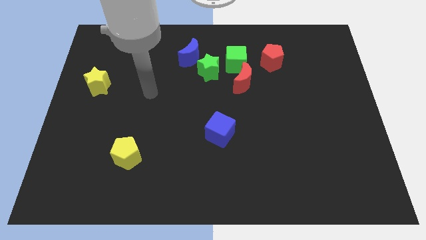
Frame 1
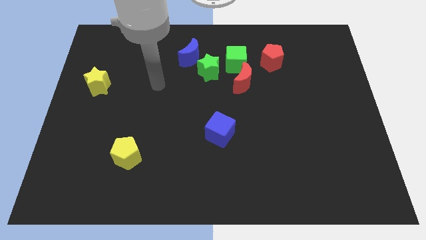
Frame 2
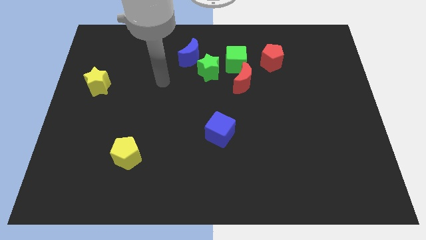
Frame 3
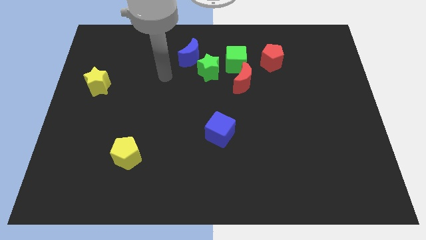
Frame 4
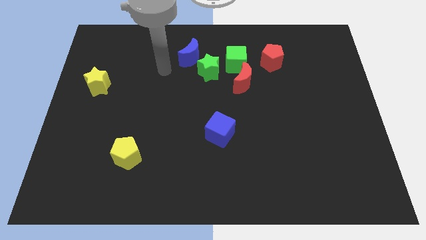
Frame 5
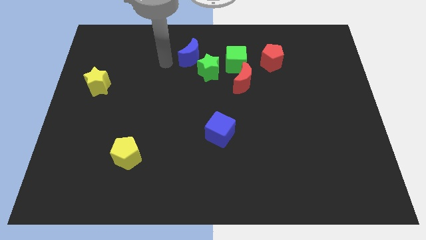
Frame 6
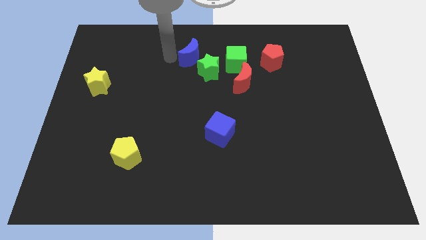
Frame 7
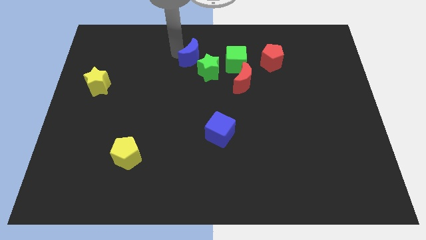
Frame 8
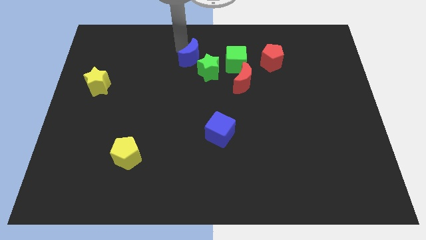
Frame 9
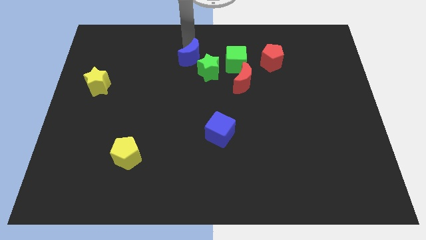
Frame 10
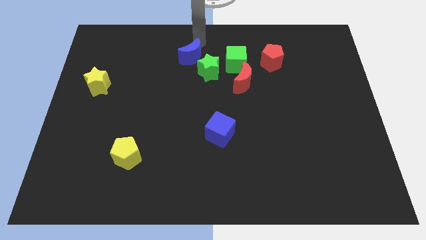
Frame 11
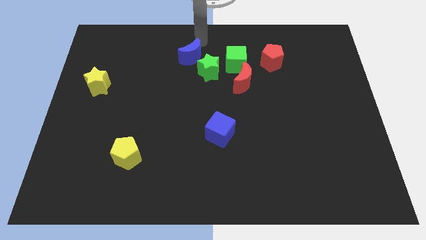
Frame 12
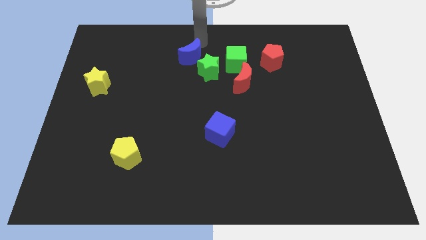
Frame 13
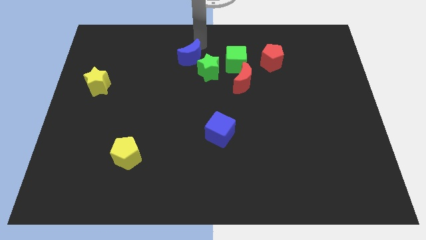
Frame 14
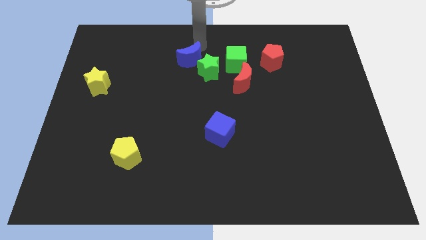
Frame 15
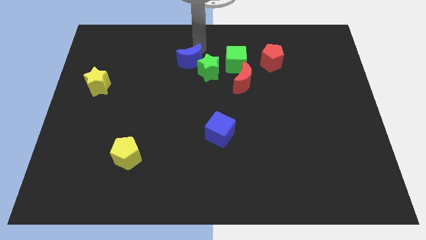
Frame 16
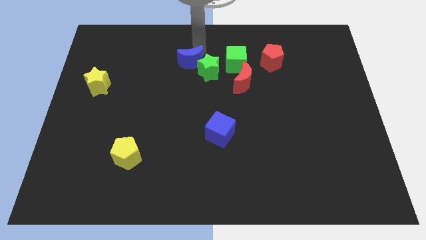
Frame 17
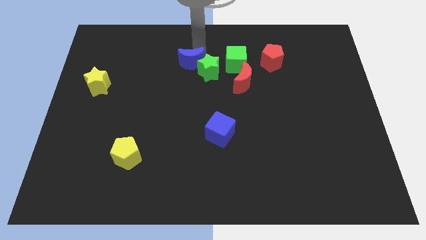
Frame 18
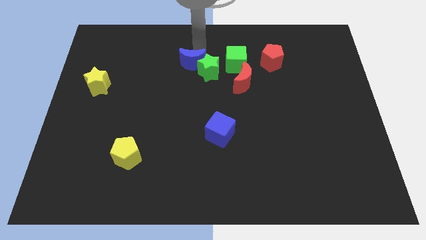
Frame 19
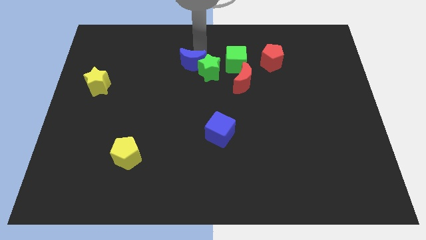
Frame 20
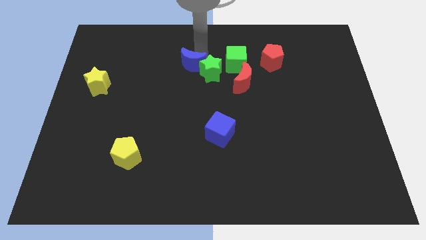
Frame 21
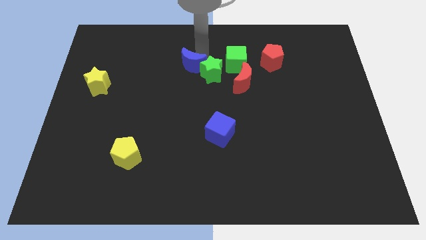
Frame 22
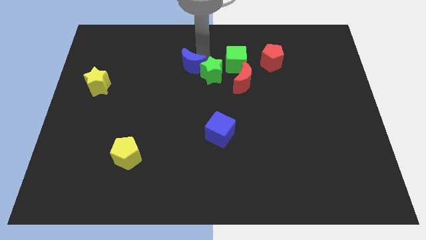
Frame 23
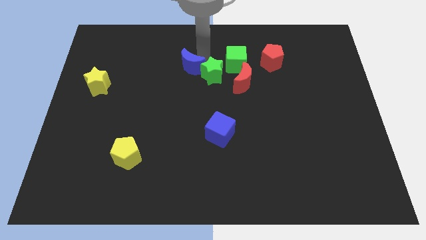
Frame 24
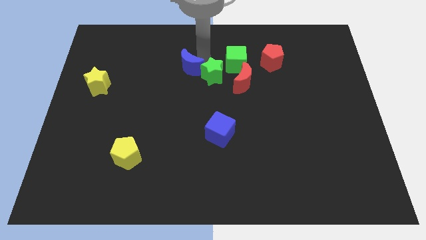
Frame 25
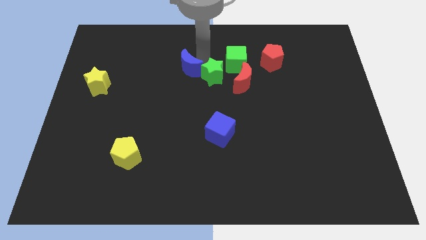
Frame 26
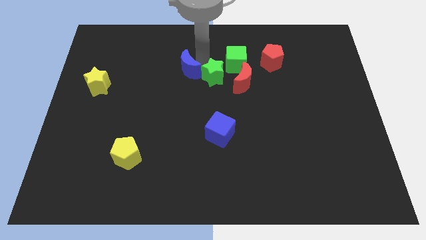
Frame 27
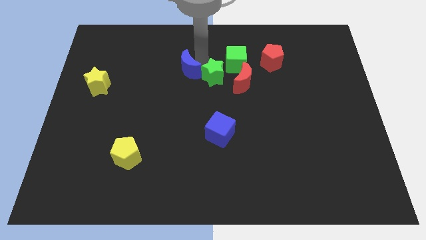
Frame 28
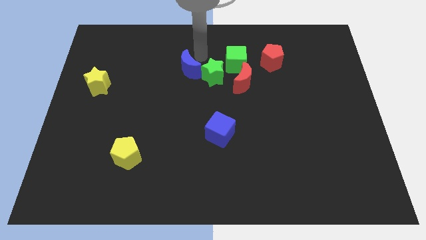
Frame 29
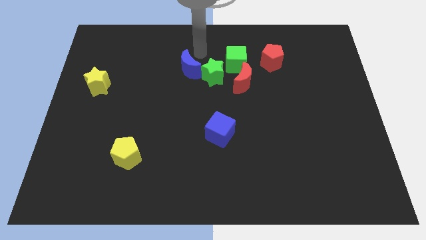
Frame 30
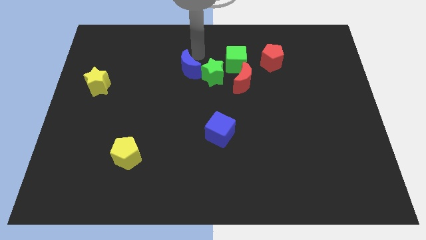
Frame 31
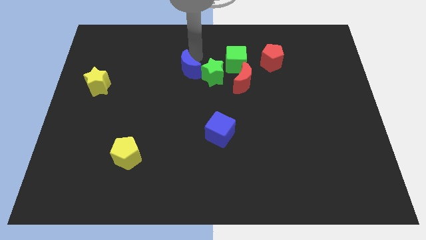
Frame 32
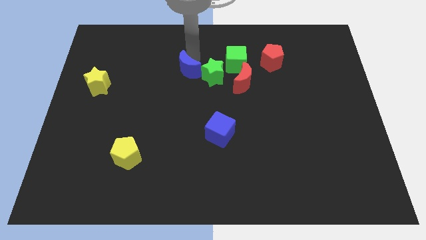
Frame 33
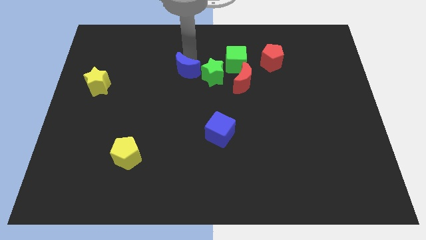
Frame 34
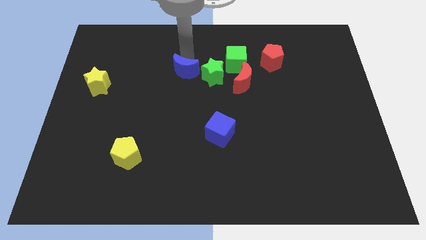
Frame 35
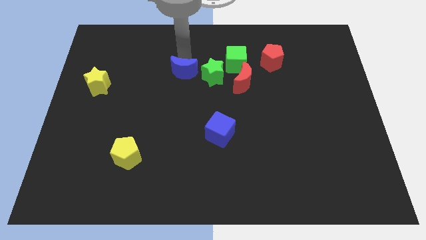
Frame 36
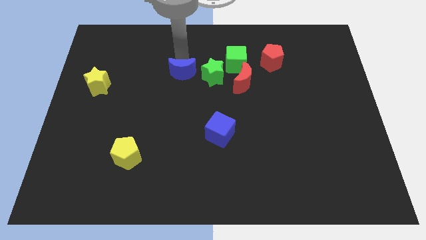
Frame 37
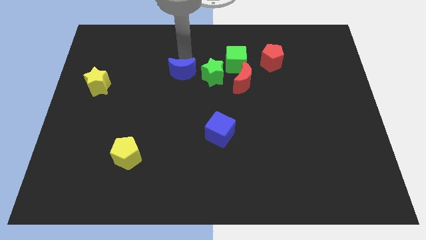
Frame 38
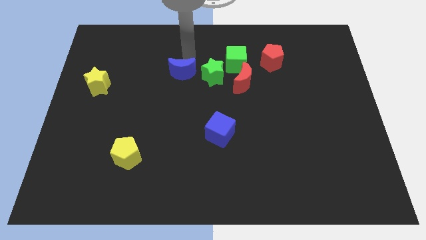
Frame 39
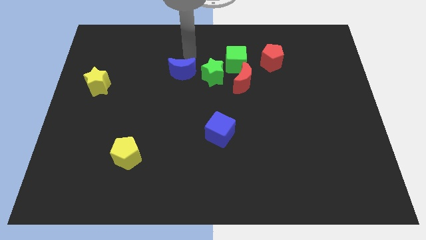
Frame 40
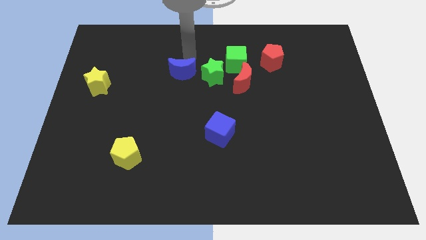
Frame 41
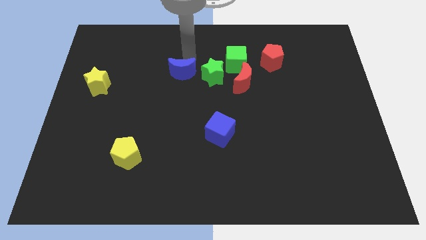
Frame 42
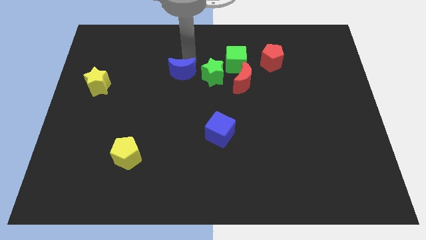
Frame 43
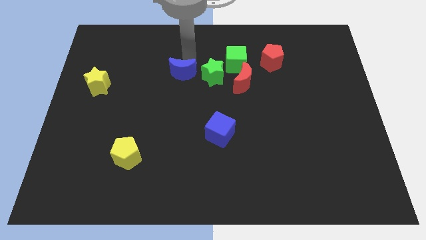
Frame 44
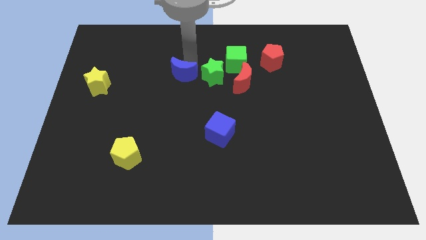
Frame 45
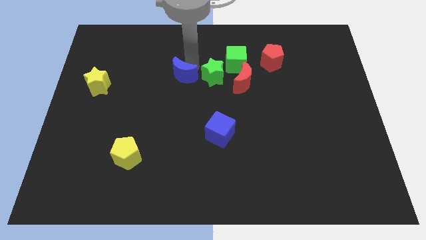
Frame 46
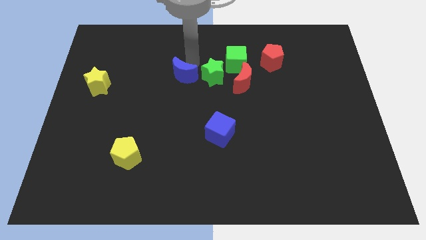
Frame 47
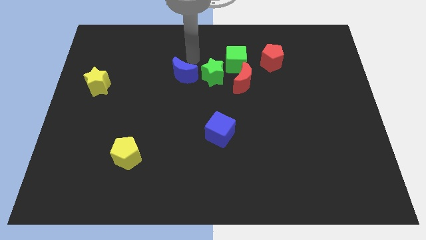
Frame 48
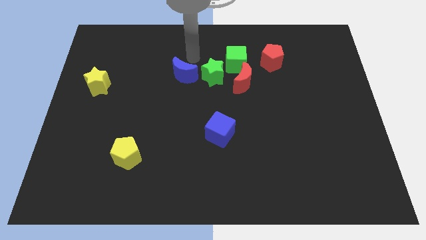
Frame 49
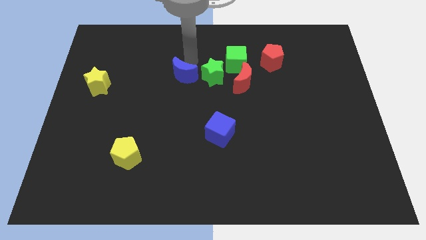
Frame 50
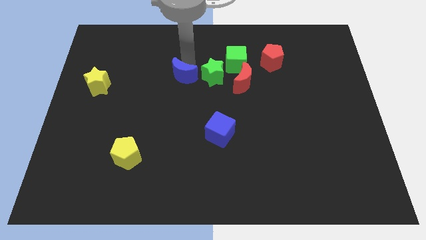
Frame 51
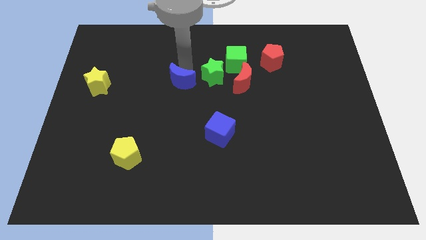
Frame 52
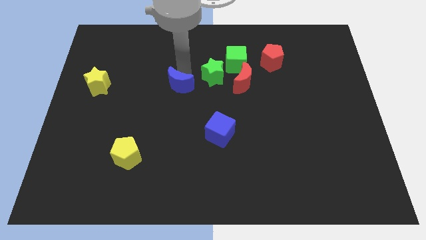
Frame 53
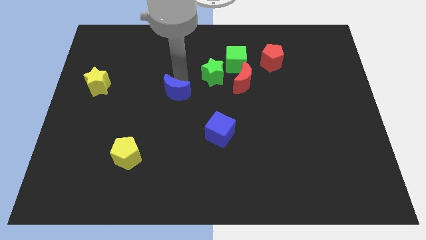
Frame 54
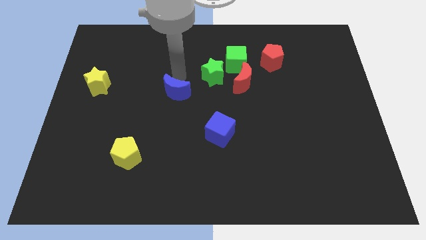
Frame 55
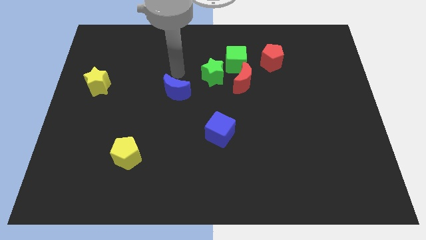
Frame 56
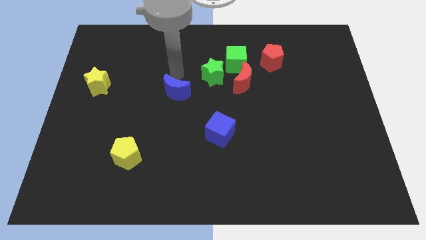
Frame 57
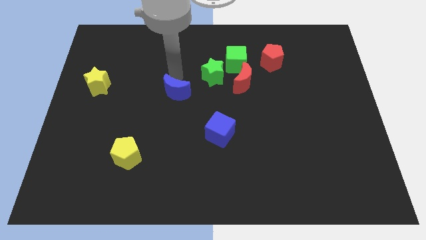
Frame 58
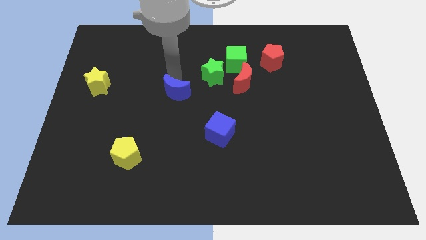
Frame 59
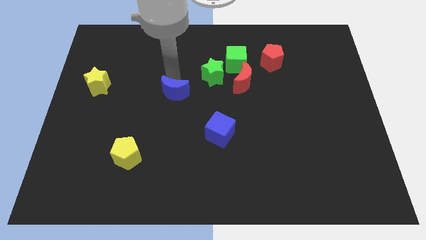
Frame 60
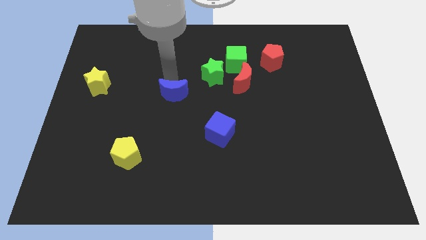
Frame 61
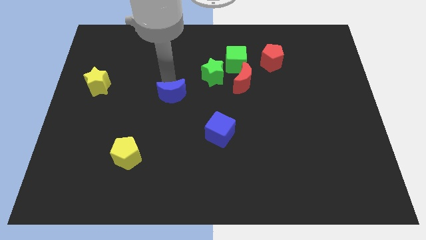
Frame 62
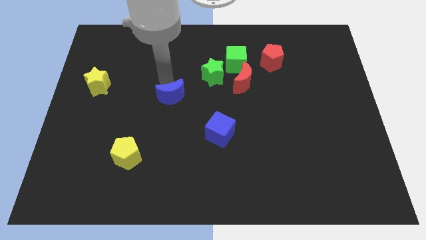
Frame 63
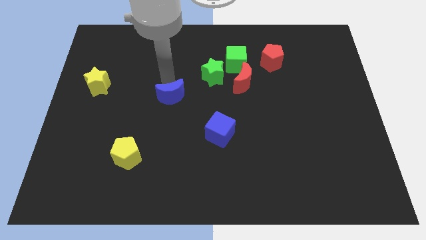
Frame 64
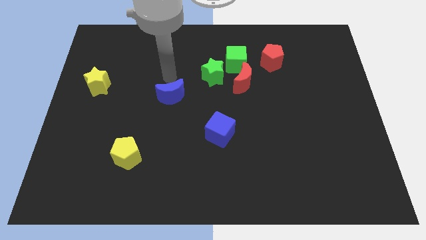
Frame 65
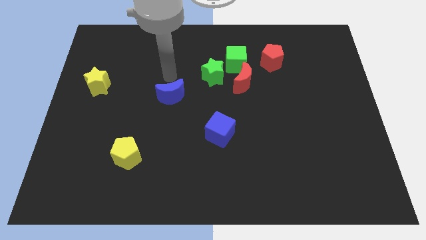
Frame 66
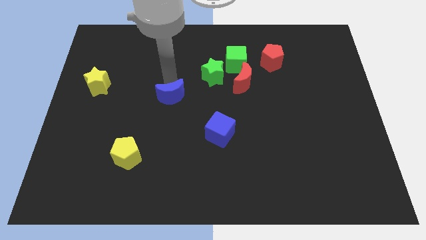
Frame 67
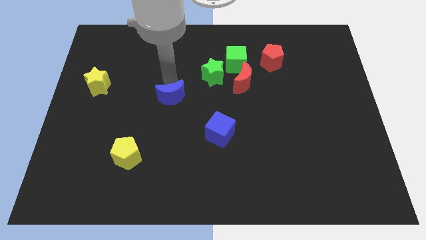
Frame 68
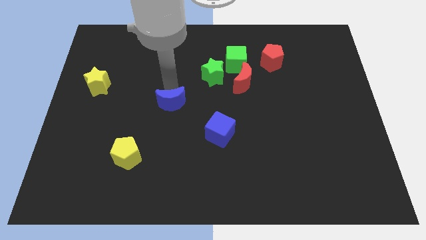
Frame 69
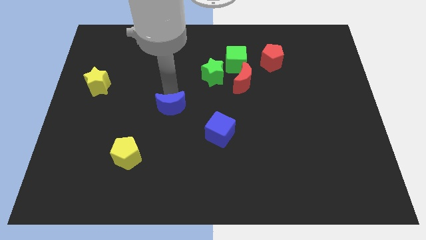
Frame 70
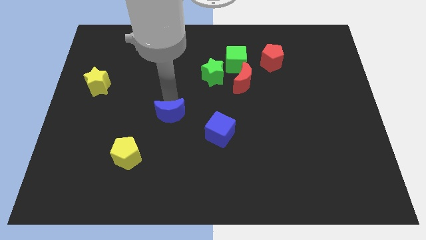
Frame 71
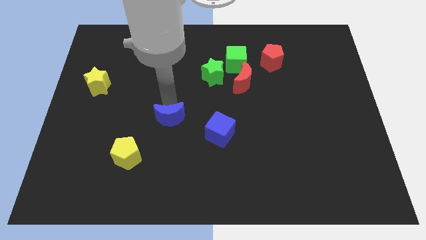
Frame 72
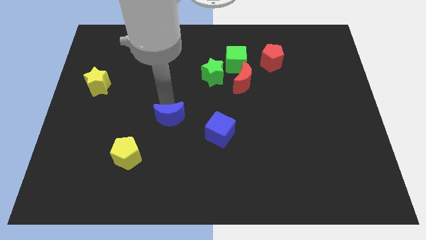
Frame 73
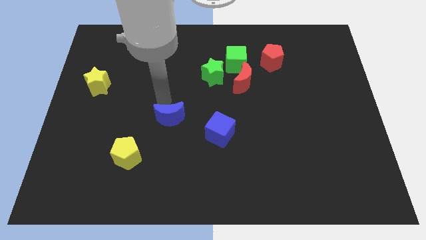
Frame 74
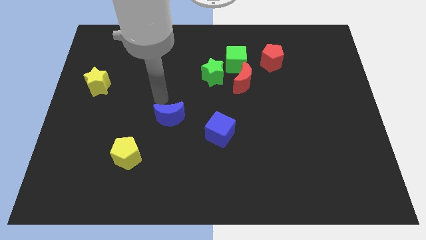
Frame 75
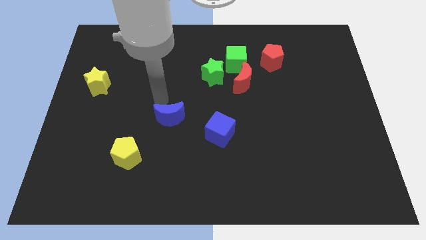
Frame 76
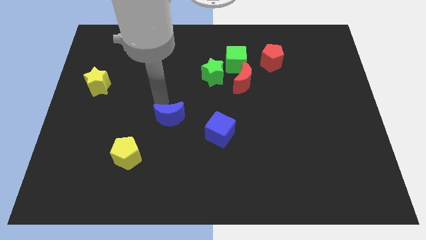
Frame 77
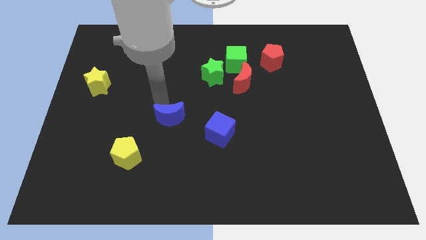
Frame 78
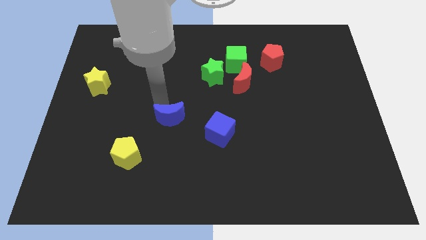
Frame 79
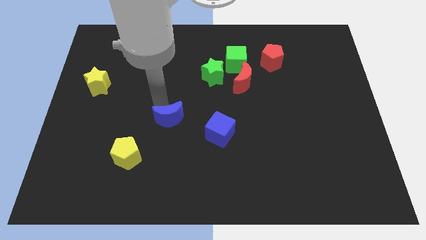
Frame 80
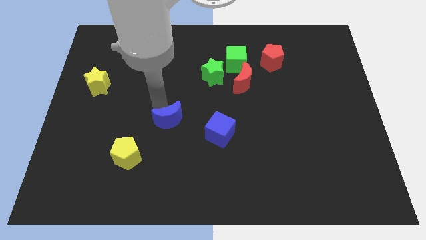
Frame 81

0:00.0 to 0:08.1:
move the blue moon downwards

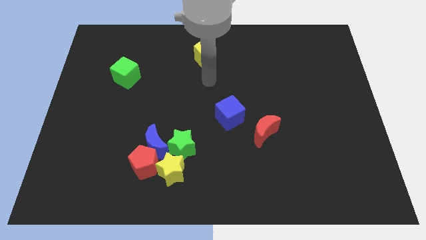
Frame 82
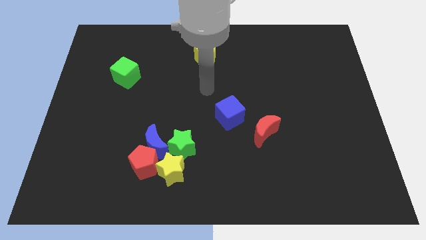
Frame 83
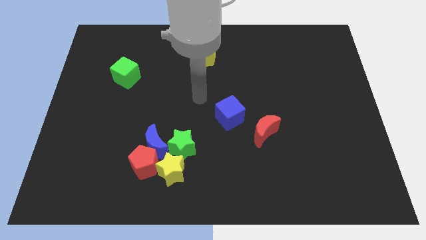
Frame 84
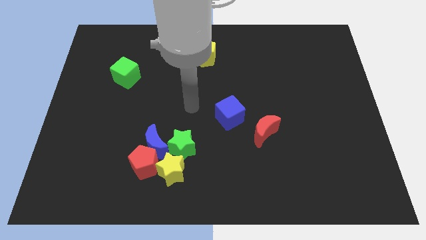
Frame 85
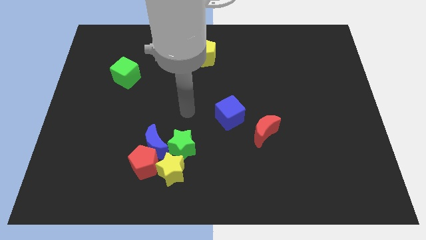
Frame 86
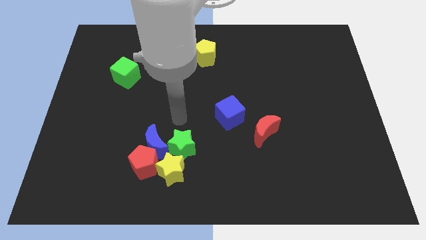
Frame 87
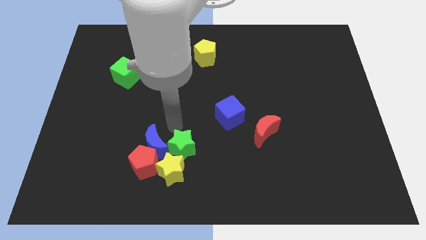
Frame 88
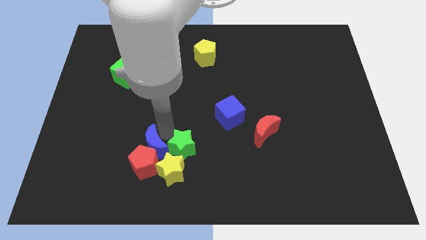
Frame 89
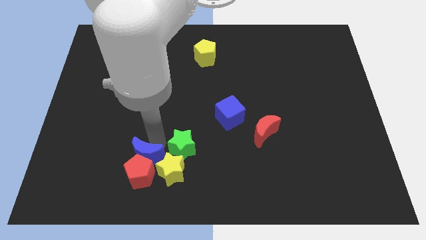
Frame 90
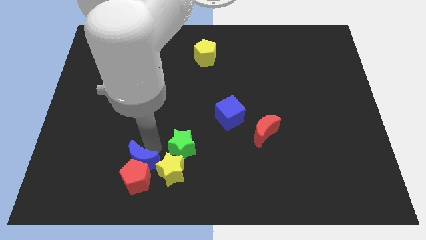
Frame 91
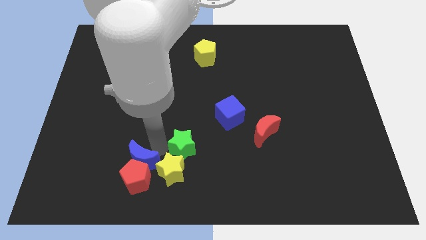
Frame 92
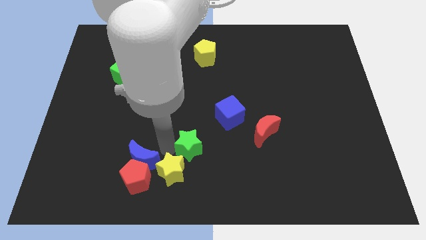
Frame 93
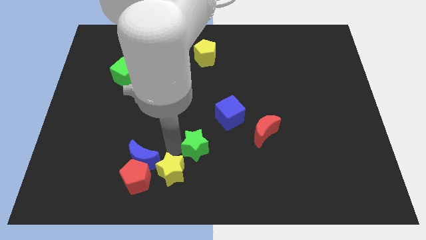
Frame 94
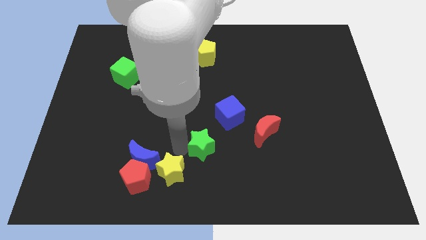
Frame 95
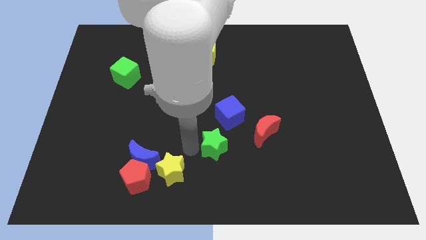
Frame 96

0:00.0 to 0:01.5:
slide the green star to the right slightly
